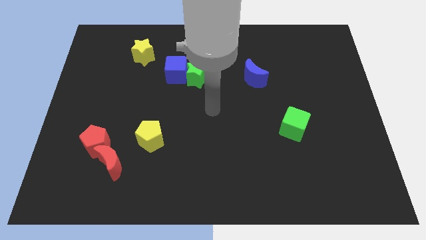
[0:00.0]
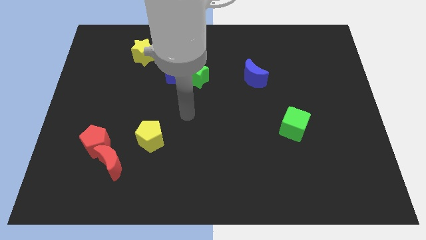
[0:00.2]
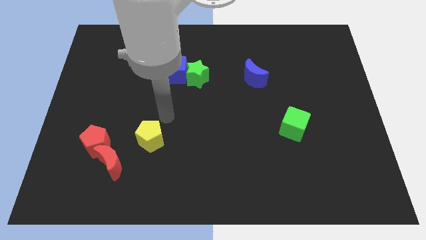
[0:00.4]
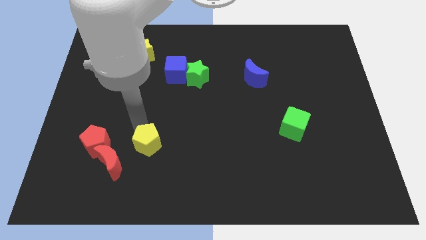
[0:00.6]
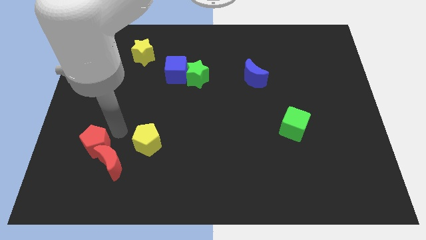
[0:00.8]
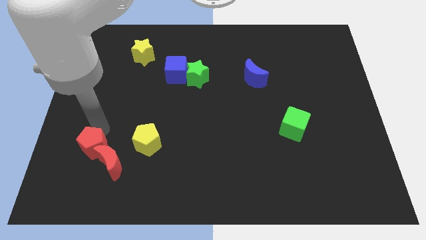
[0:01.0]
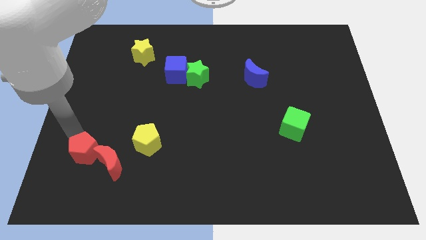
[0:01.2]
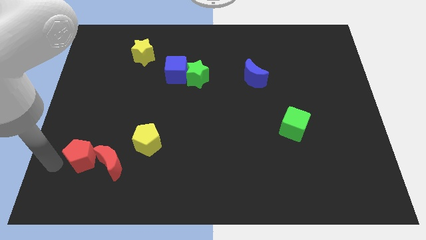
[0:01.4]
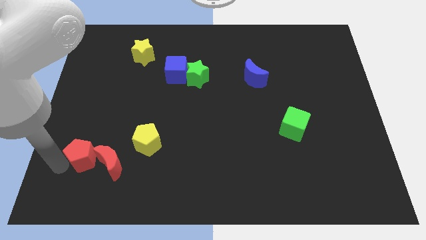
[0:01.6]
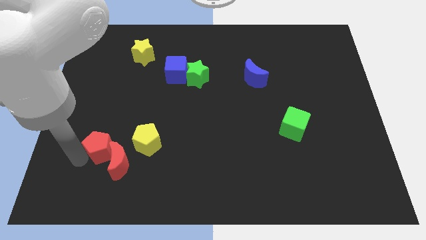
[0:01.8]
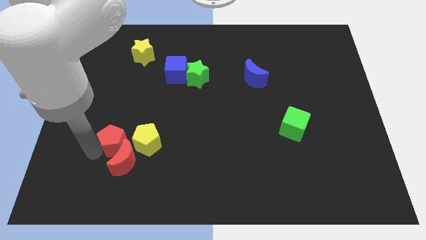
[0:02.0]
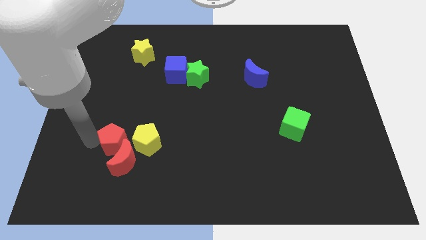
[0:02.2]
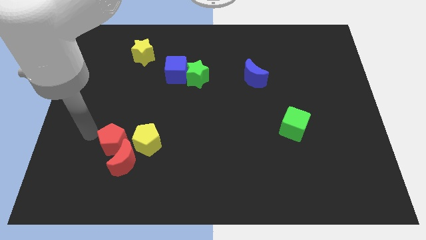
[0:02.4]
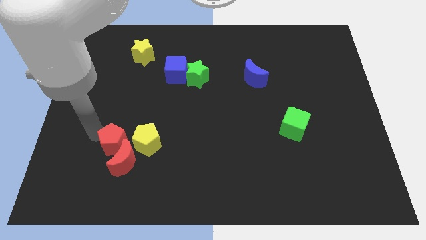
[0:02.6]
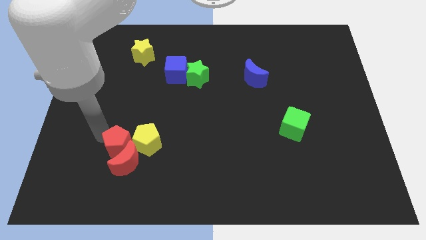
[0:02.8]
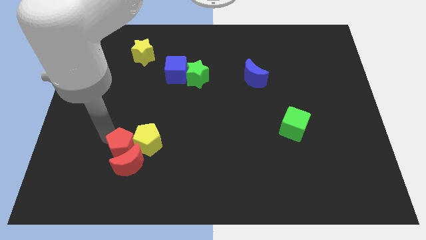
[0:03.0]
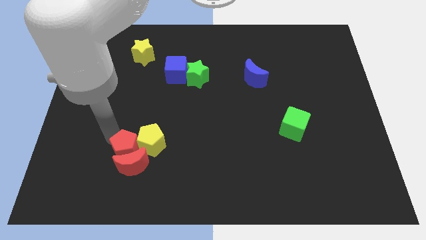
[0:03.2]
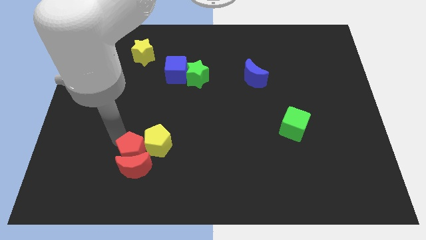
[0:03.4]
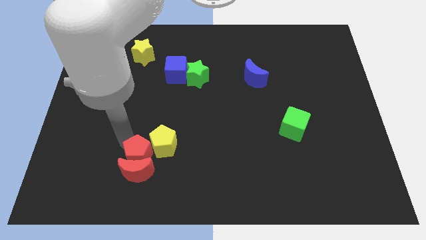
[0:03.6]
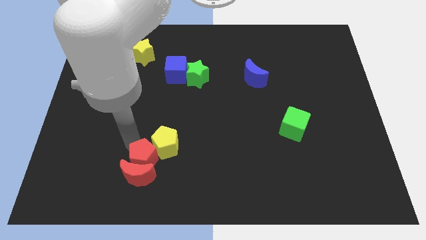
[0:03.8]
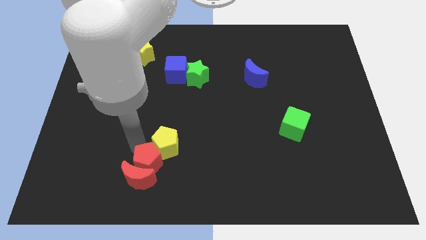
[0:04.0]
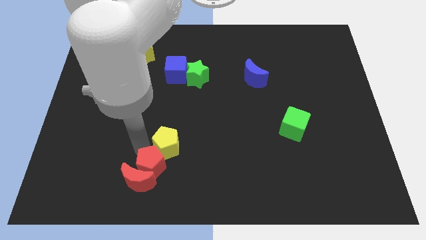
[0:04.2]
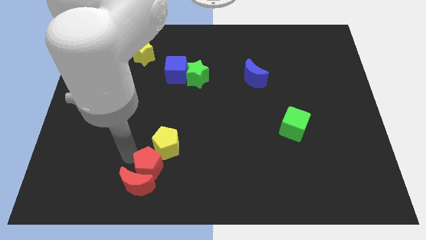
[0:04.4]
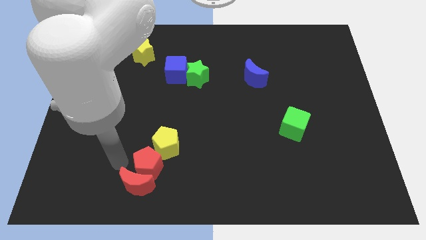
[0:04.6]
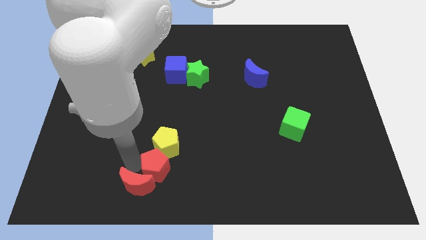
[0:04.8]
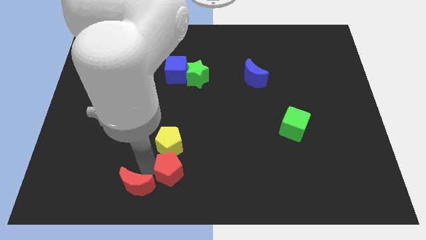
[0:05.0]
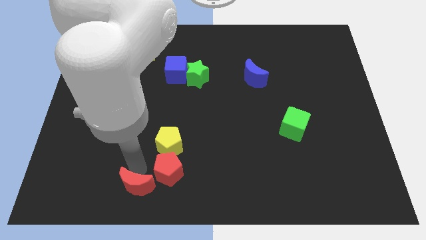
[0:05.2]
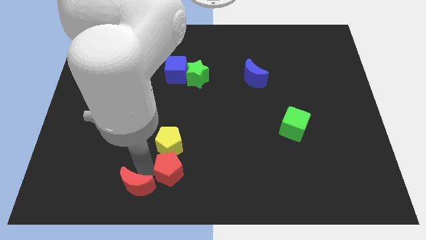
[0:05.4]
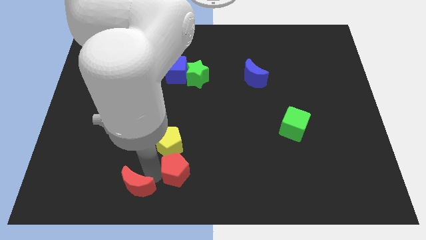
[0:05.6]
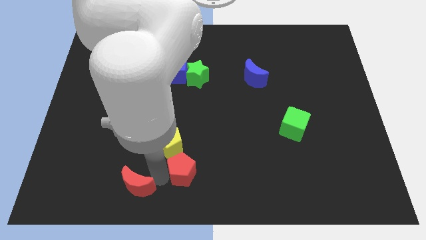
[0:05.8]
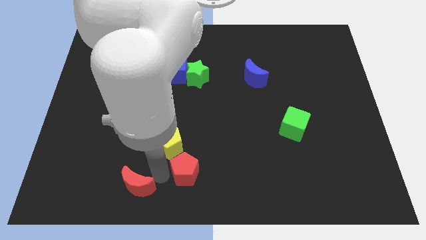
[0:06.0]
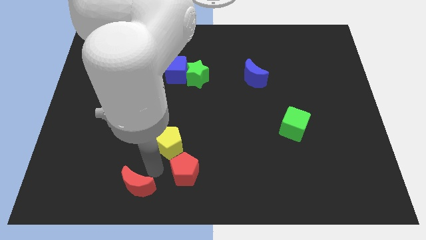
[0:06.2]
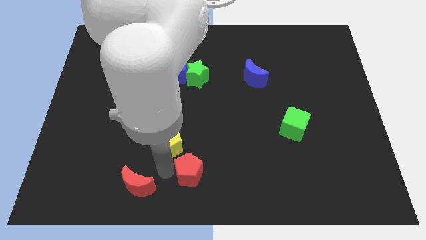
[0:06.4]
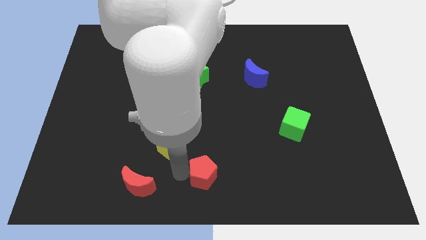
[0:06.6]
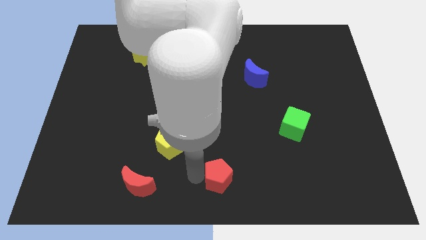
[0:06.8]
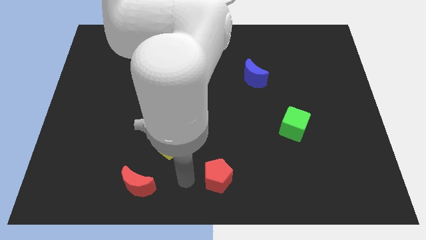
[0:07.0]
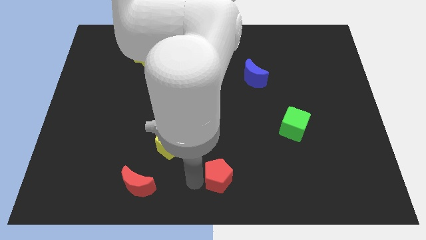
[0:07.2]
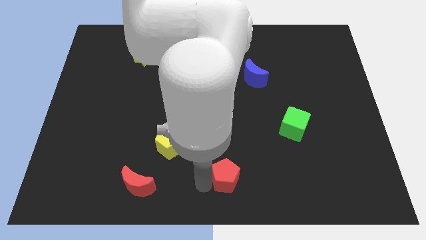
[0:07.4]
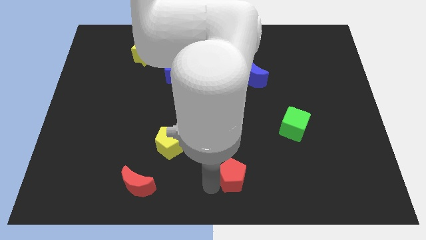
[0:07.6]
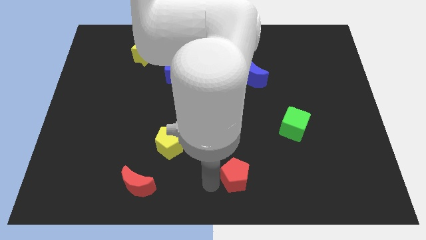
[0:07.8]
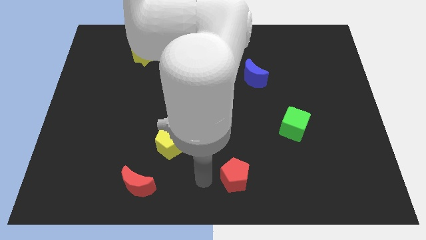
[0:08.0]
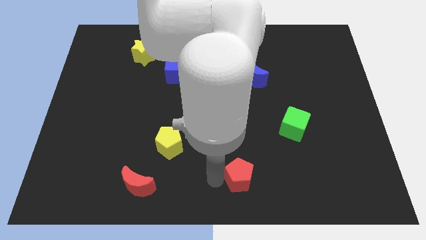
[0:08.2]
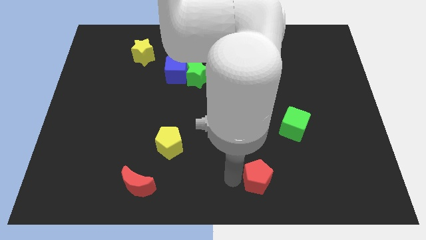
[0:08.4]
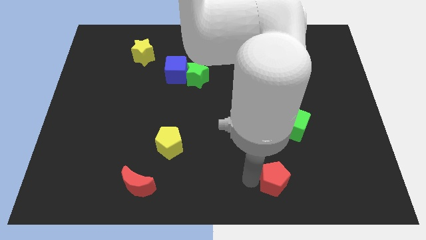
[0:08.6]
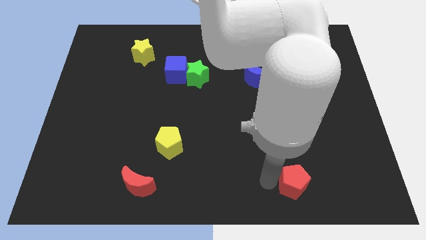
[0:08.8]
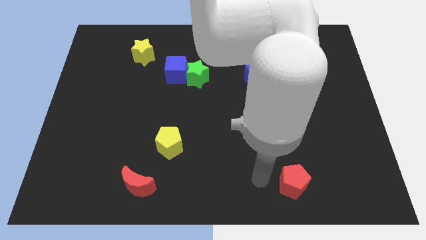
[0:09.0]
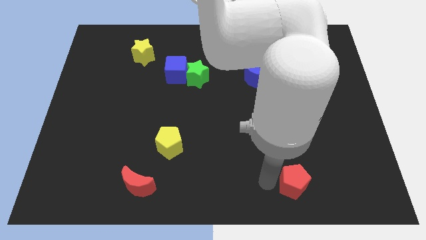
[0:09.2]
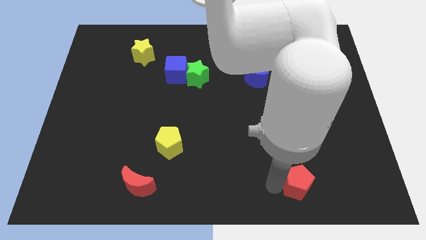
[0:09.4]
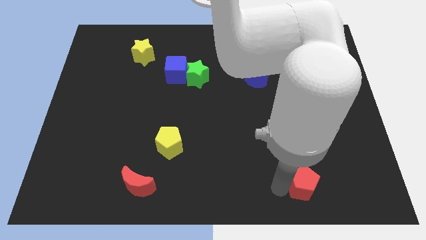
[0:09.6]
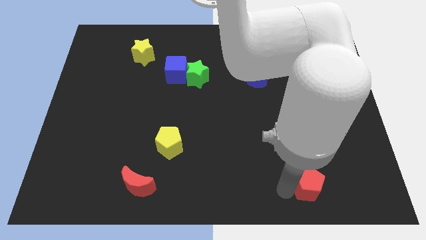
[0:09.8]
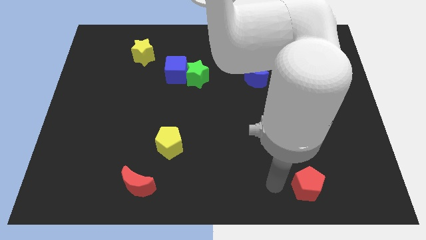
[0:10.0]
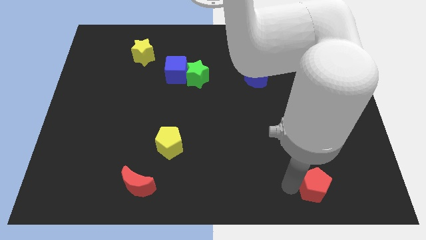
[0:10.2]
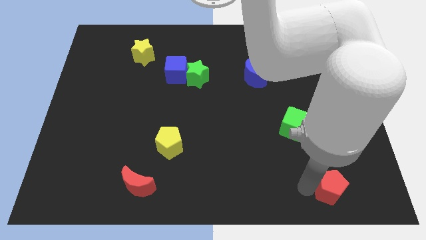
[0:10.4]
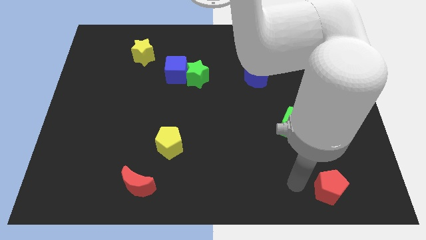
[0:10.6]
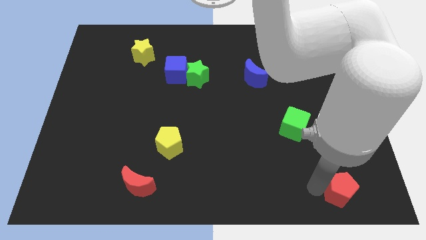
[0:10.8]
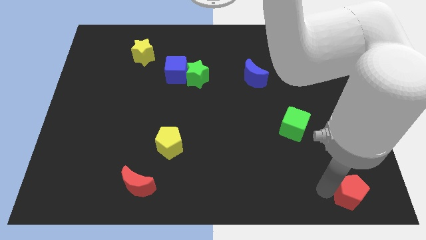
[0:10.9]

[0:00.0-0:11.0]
slide the red pentagon to the bottom right

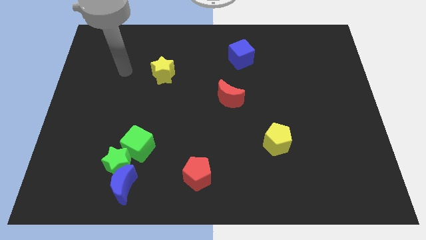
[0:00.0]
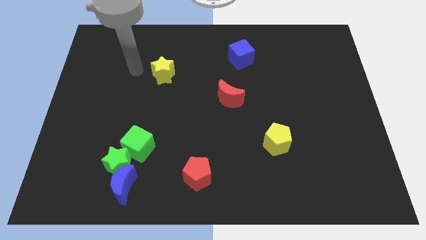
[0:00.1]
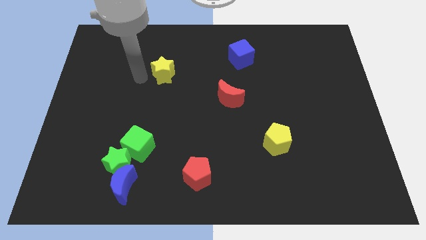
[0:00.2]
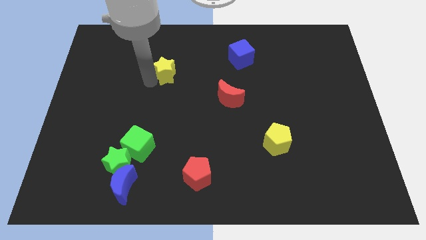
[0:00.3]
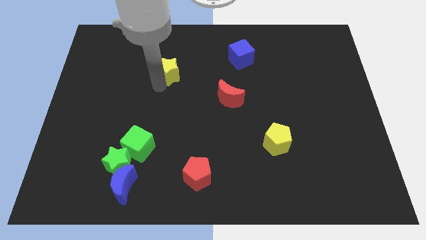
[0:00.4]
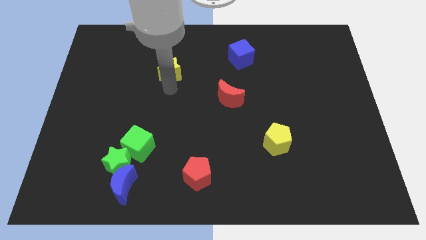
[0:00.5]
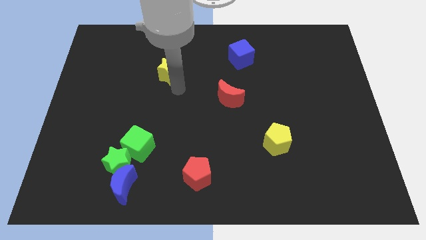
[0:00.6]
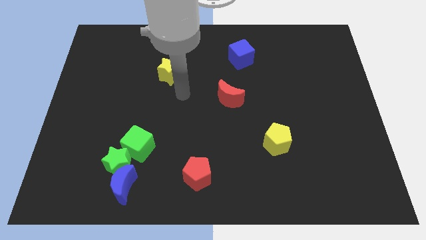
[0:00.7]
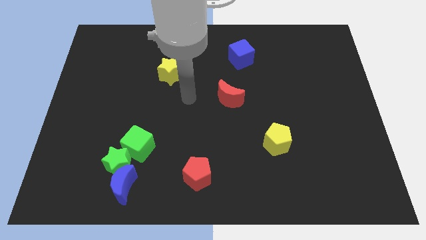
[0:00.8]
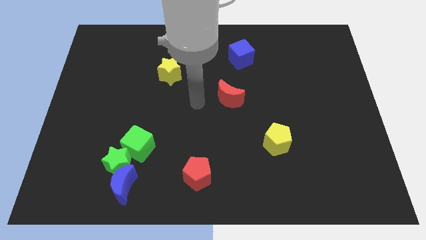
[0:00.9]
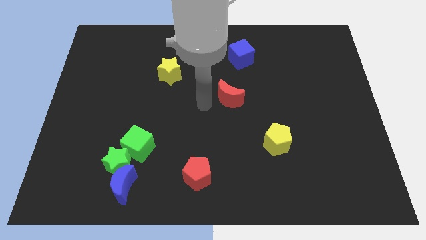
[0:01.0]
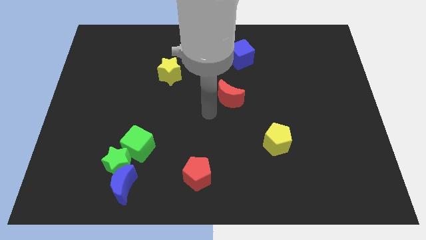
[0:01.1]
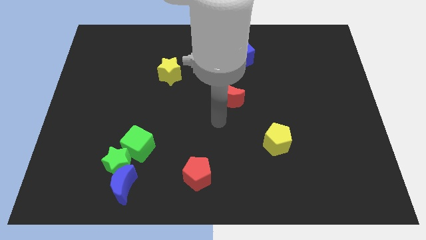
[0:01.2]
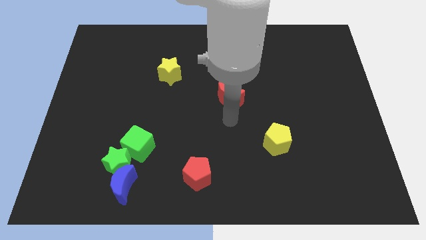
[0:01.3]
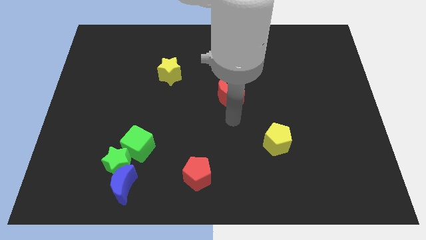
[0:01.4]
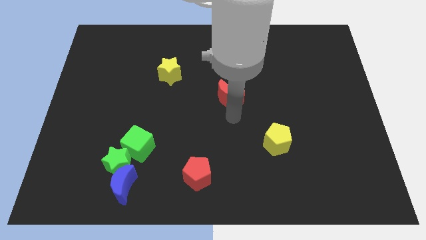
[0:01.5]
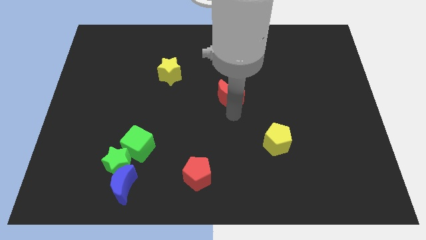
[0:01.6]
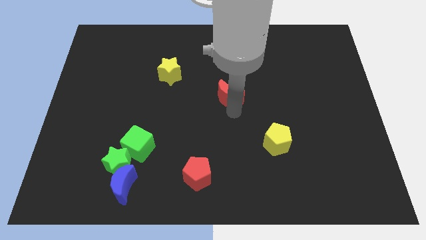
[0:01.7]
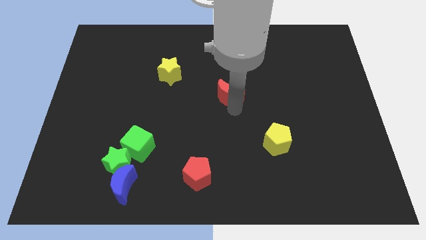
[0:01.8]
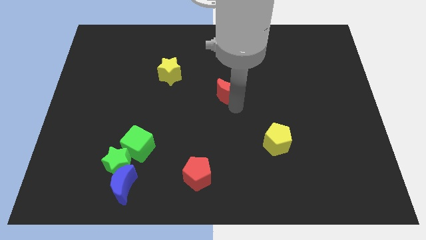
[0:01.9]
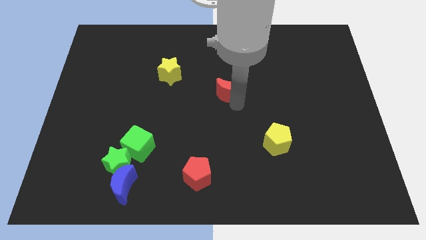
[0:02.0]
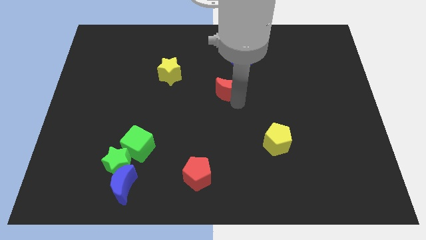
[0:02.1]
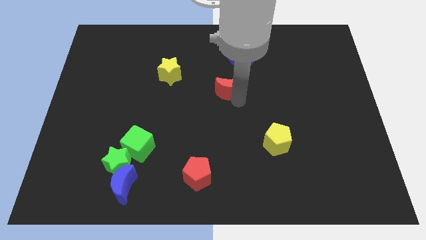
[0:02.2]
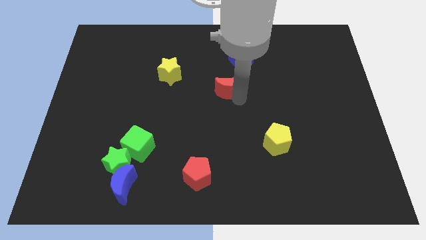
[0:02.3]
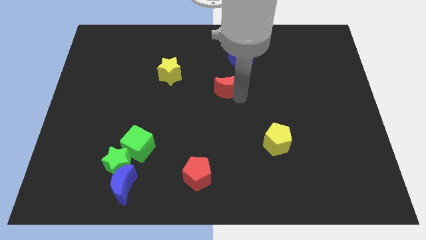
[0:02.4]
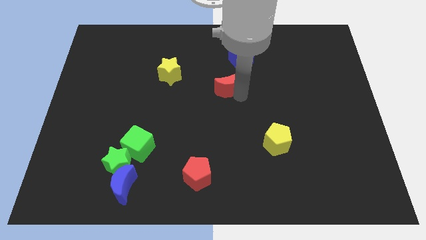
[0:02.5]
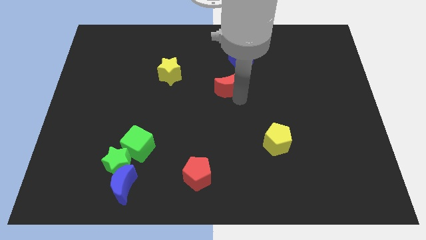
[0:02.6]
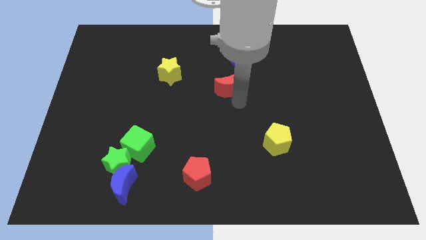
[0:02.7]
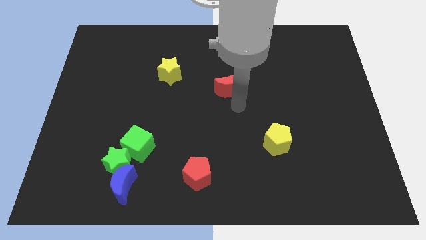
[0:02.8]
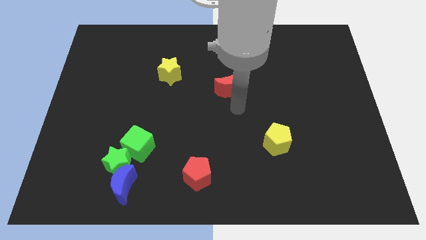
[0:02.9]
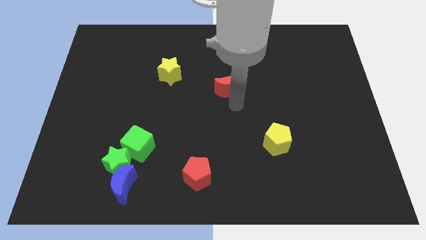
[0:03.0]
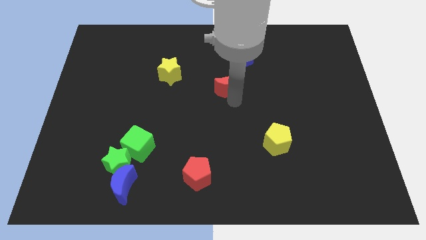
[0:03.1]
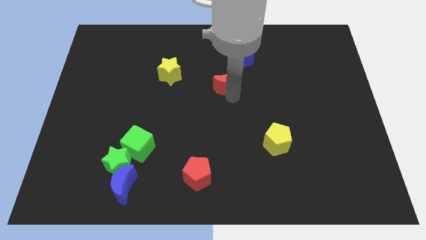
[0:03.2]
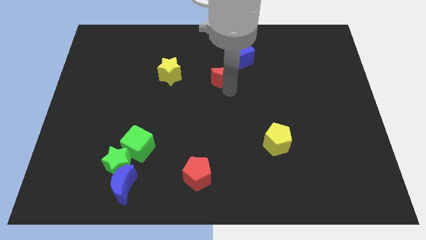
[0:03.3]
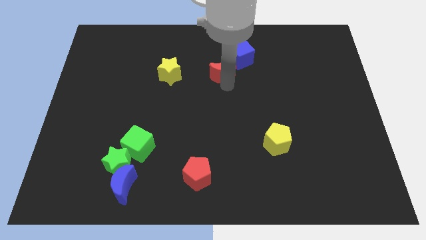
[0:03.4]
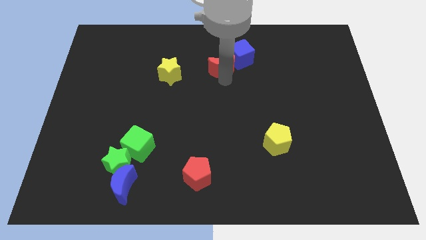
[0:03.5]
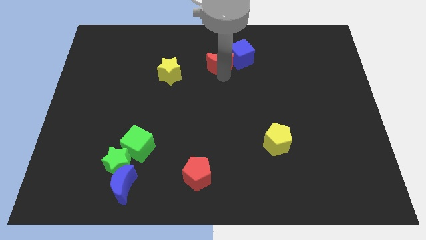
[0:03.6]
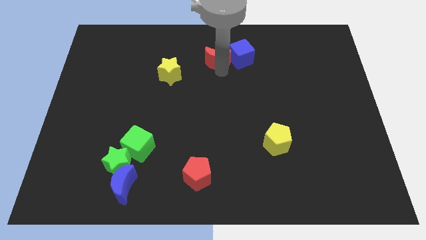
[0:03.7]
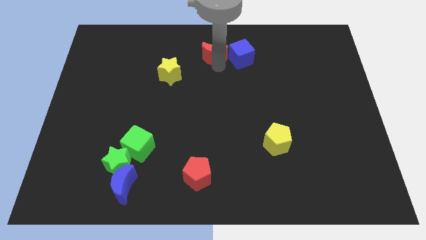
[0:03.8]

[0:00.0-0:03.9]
slide the red moon to the towards your base
